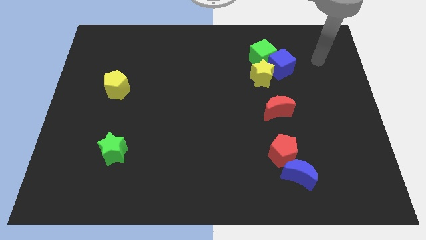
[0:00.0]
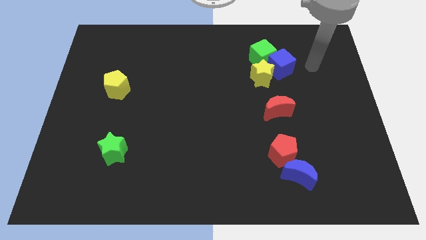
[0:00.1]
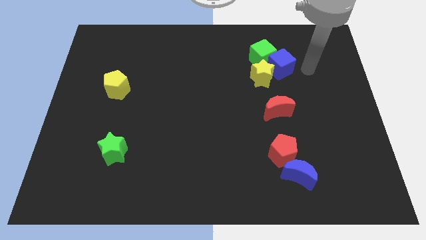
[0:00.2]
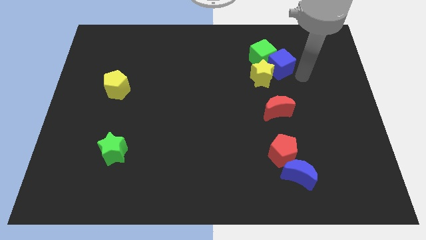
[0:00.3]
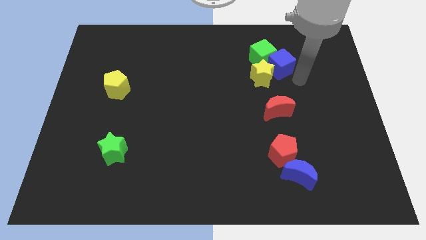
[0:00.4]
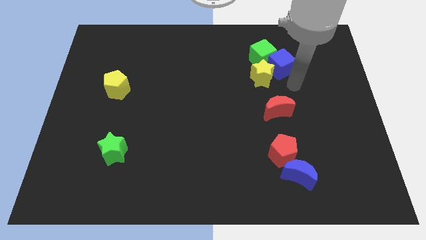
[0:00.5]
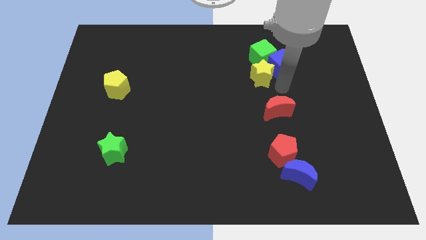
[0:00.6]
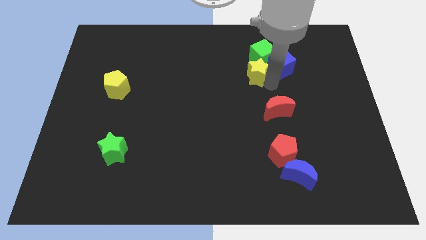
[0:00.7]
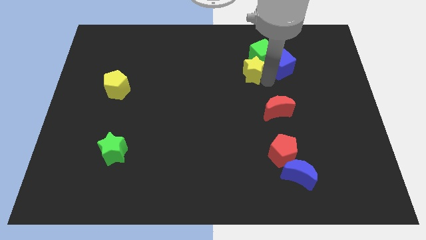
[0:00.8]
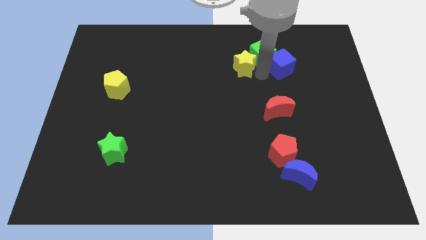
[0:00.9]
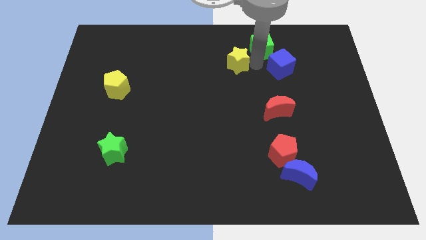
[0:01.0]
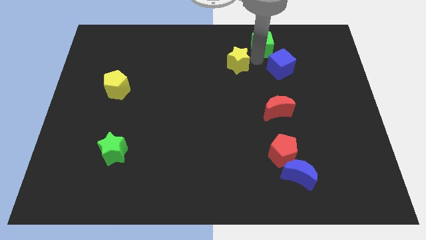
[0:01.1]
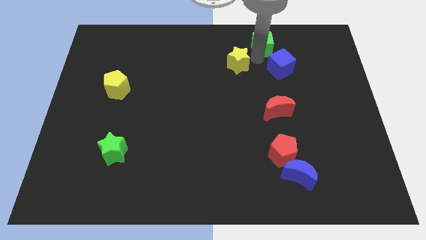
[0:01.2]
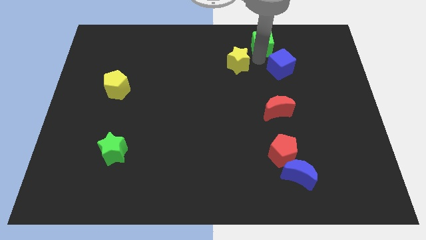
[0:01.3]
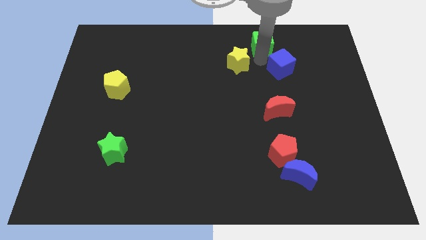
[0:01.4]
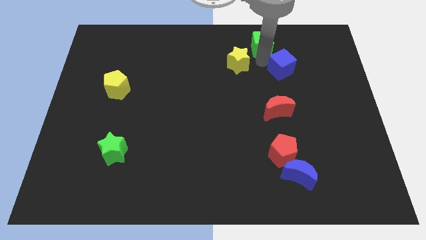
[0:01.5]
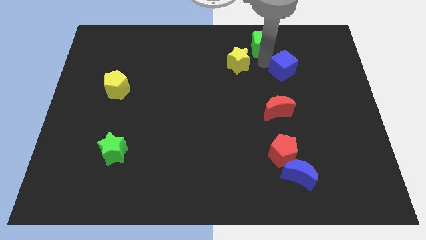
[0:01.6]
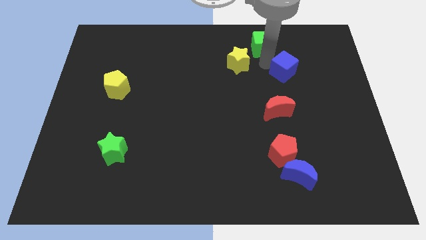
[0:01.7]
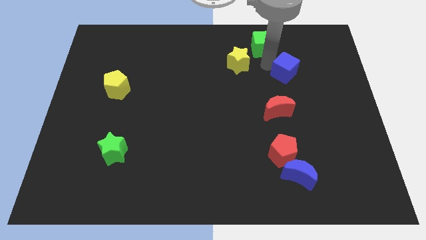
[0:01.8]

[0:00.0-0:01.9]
move the blue cube away from the green cube and yellow star

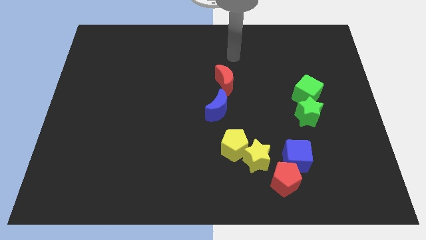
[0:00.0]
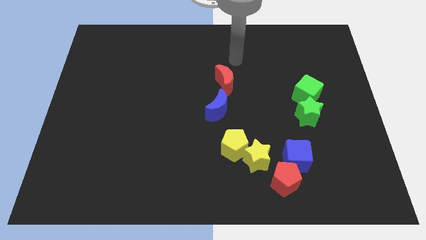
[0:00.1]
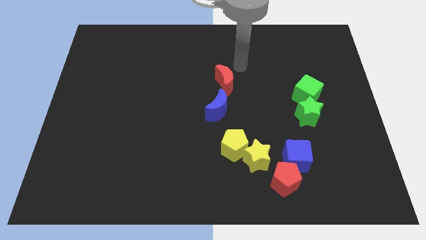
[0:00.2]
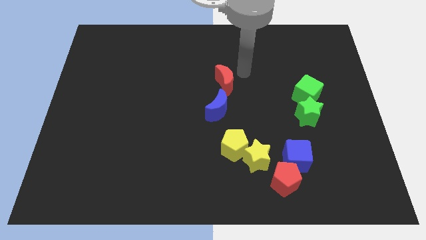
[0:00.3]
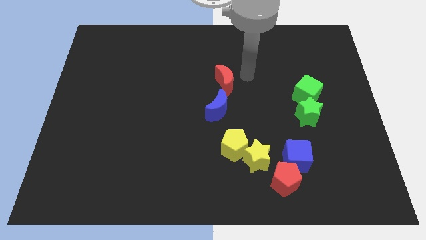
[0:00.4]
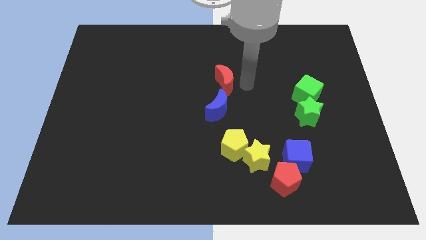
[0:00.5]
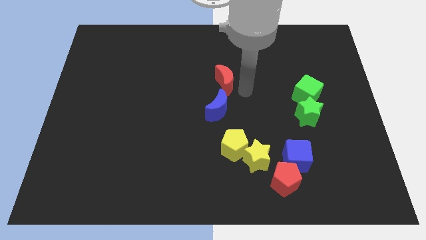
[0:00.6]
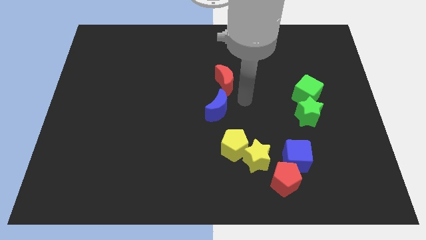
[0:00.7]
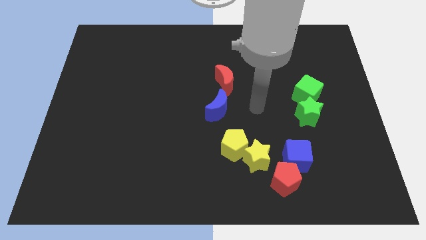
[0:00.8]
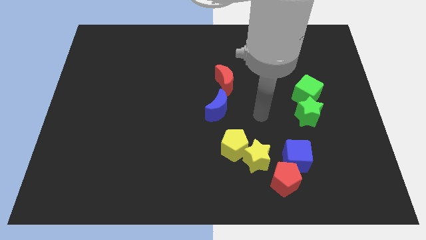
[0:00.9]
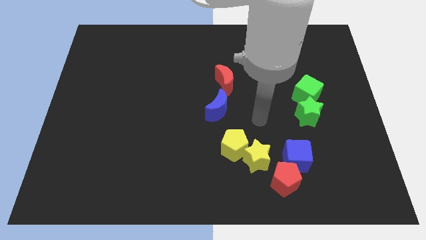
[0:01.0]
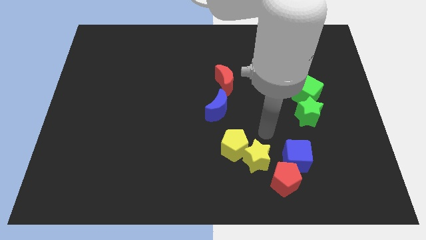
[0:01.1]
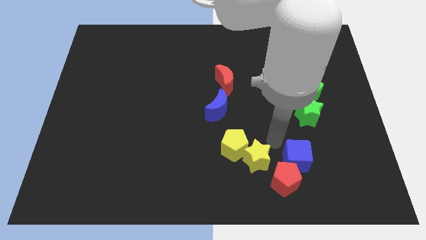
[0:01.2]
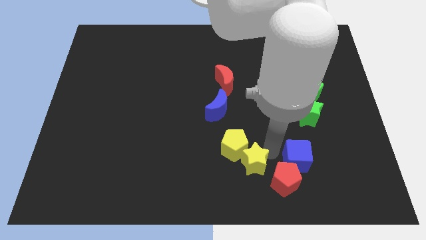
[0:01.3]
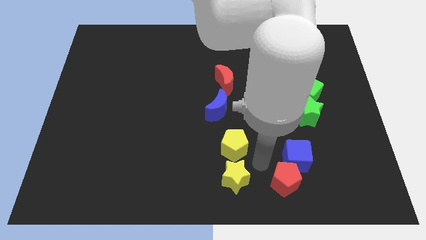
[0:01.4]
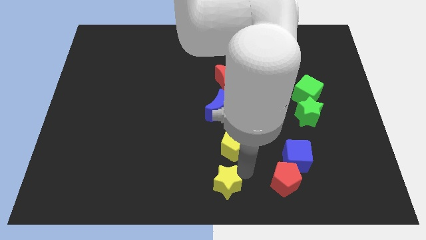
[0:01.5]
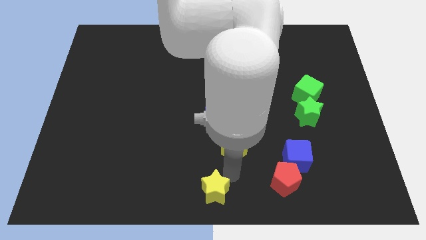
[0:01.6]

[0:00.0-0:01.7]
separate the yellow pentagon from the yellow star

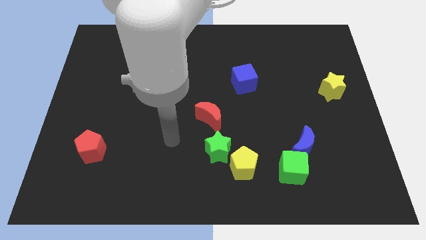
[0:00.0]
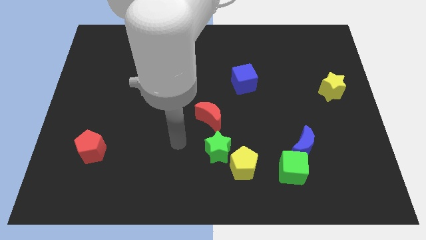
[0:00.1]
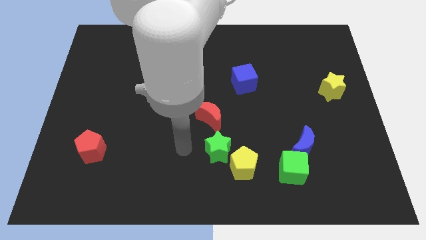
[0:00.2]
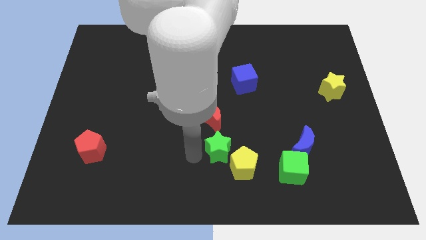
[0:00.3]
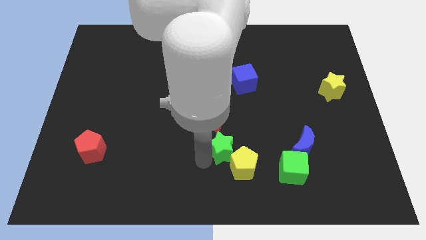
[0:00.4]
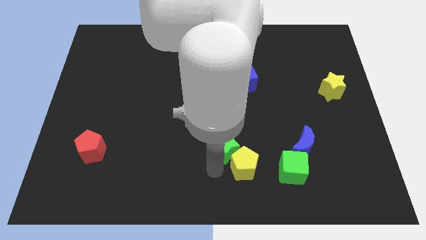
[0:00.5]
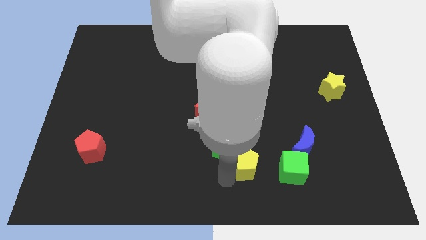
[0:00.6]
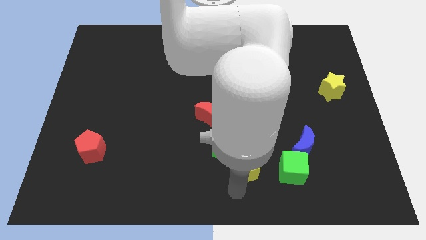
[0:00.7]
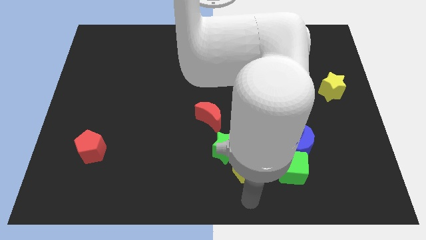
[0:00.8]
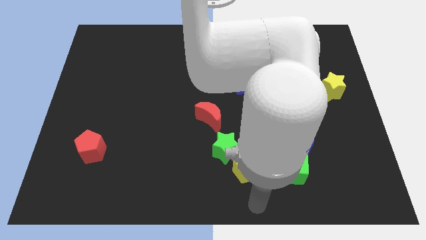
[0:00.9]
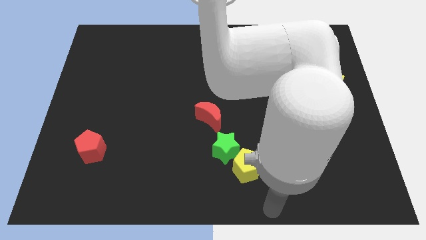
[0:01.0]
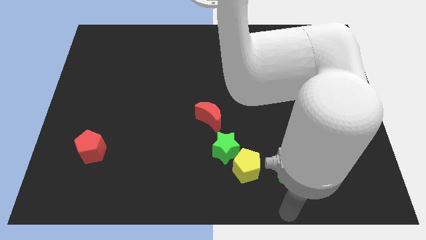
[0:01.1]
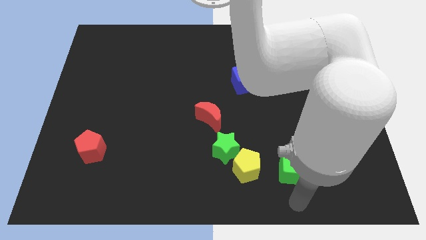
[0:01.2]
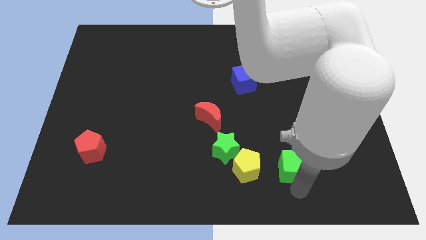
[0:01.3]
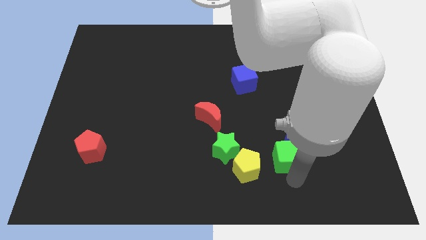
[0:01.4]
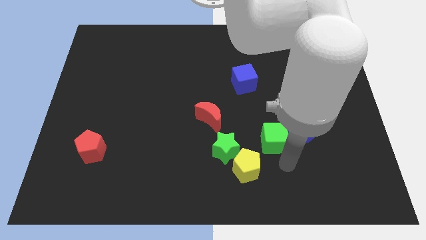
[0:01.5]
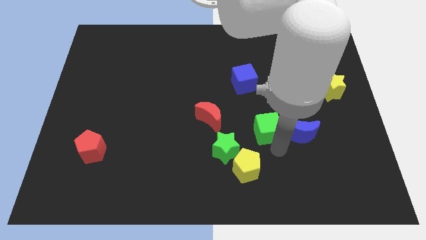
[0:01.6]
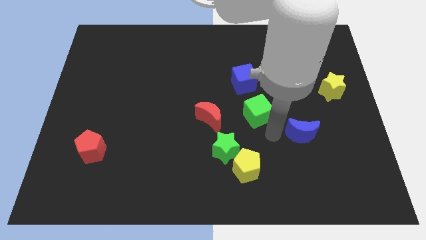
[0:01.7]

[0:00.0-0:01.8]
separate the blue moon from the green cube

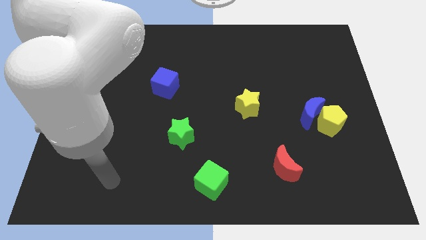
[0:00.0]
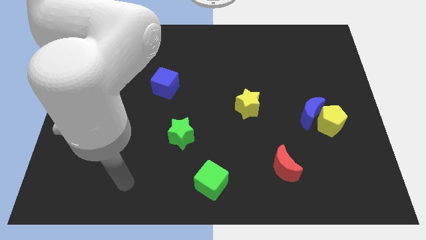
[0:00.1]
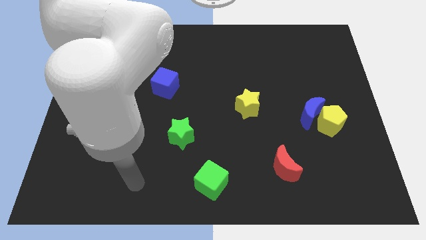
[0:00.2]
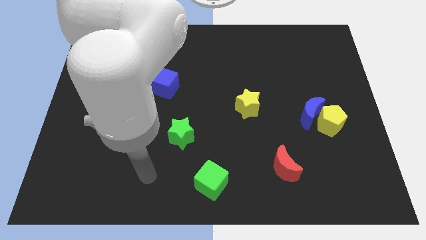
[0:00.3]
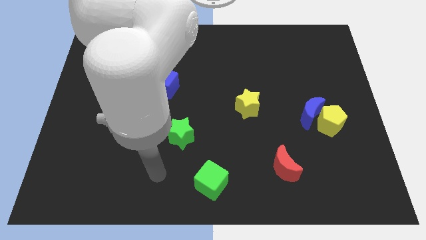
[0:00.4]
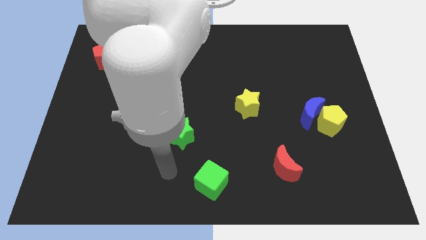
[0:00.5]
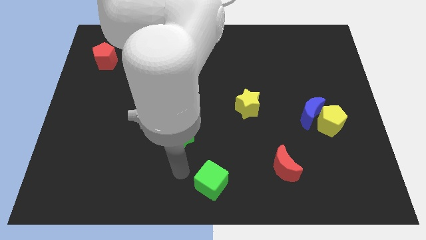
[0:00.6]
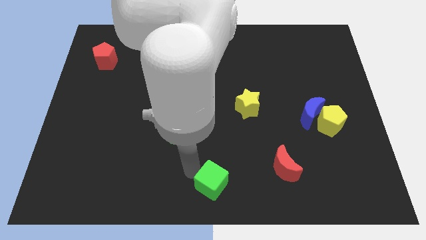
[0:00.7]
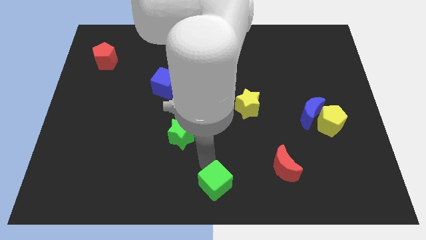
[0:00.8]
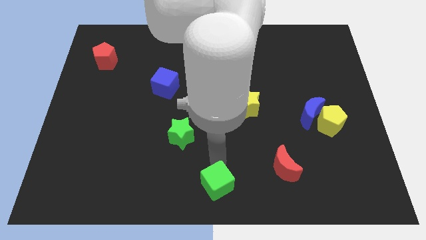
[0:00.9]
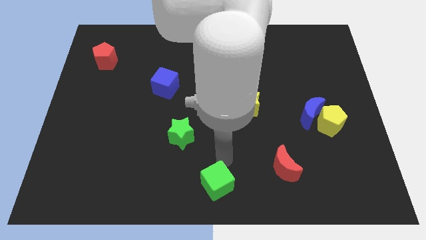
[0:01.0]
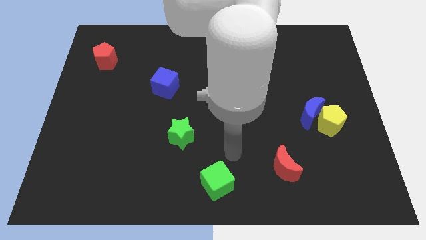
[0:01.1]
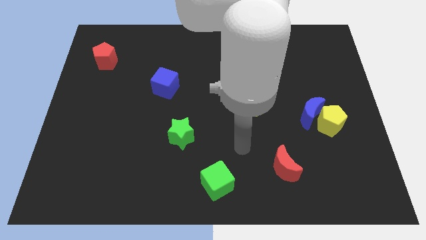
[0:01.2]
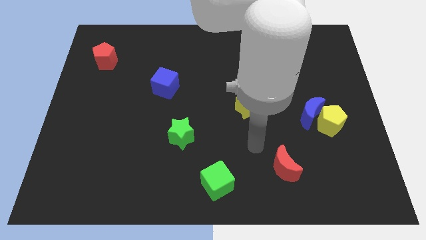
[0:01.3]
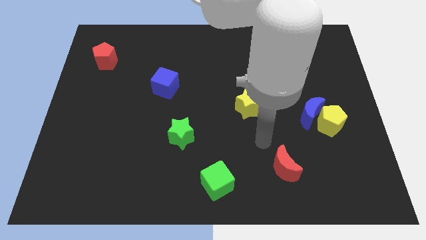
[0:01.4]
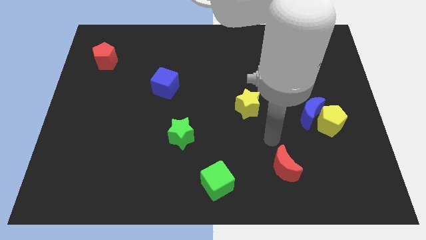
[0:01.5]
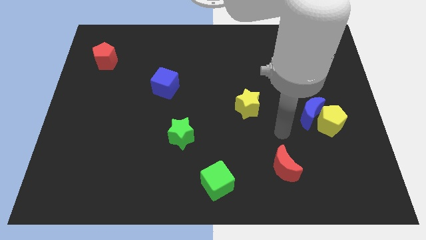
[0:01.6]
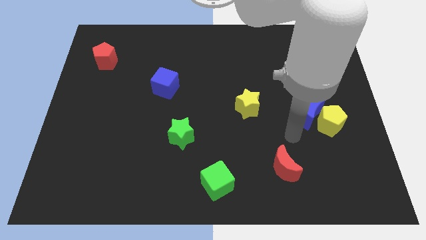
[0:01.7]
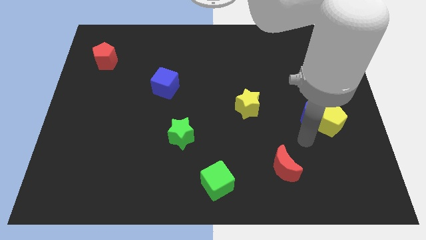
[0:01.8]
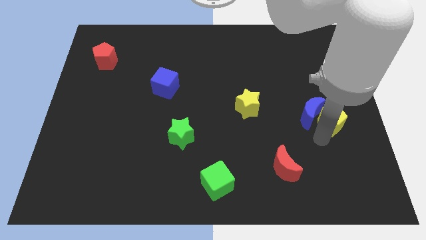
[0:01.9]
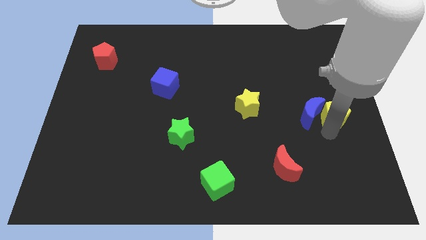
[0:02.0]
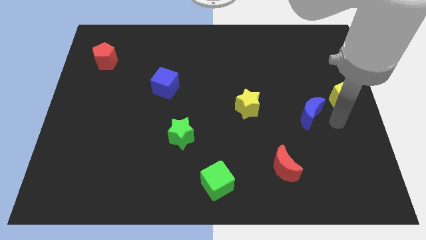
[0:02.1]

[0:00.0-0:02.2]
move the blue moon away from the yellow pentagon

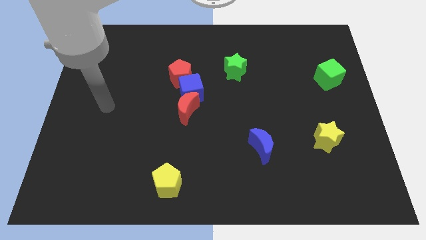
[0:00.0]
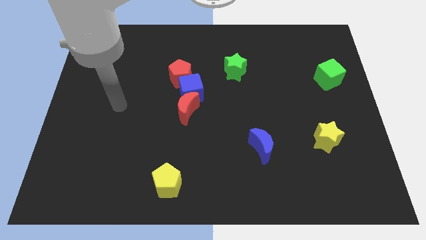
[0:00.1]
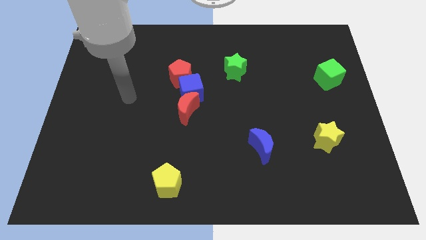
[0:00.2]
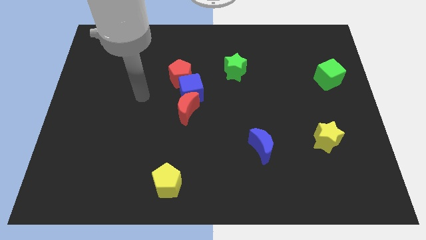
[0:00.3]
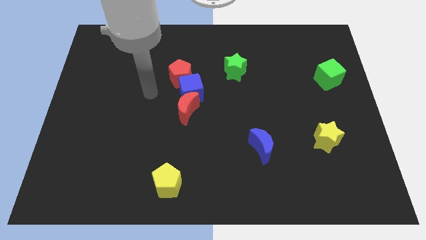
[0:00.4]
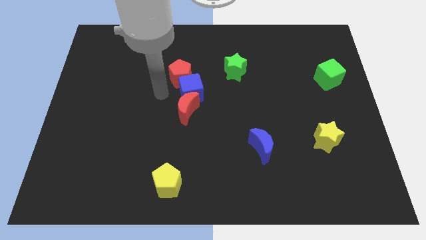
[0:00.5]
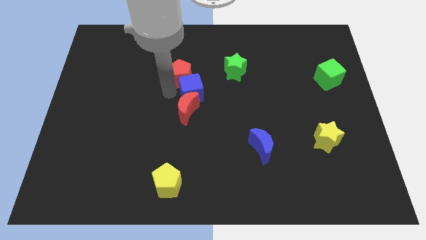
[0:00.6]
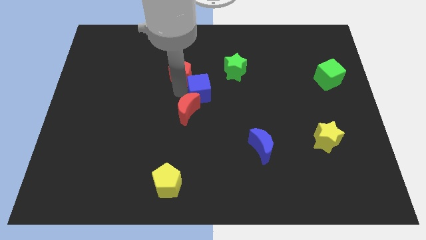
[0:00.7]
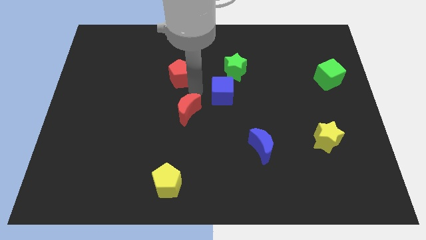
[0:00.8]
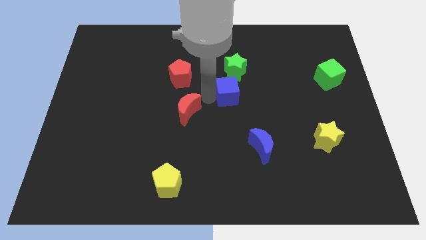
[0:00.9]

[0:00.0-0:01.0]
separate the red moon from the blue cube

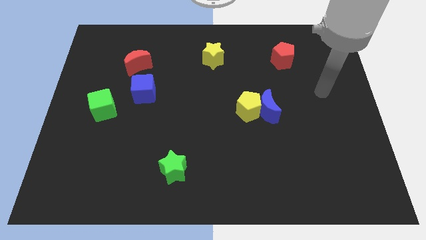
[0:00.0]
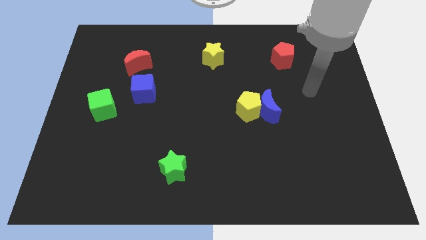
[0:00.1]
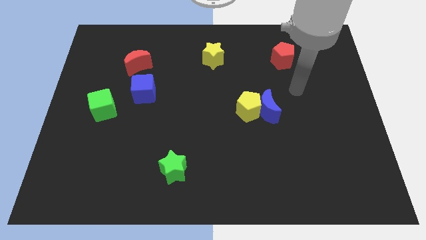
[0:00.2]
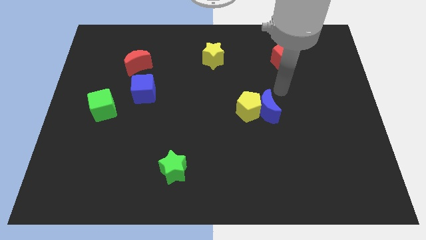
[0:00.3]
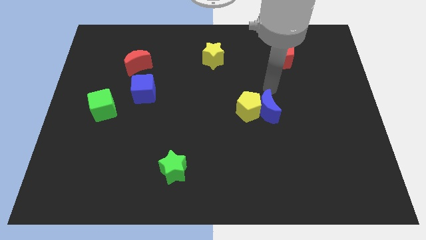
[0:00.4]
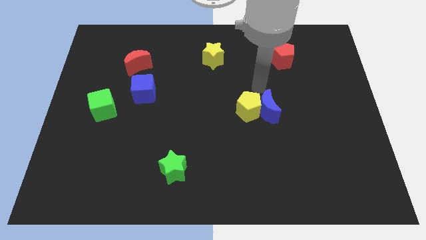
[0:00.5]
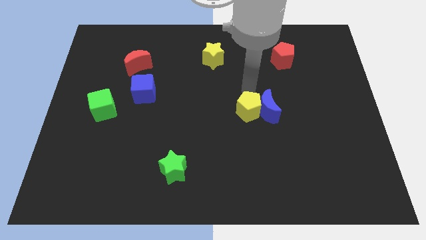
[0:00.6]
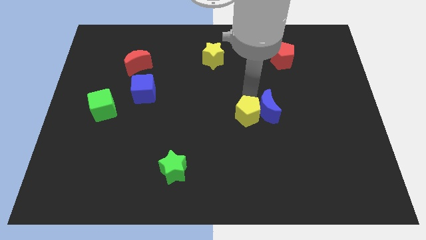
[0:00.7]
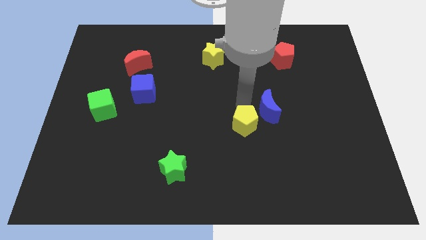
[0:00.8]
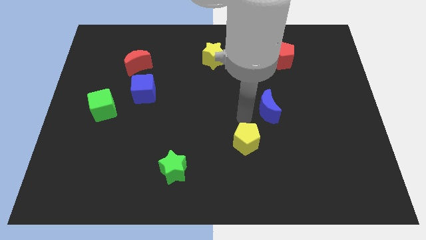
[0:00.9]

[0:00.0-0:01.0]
pull the blue moon apart from the yellow pentagon
